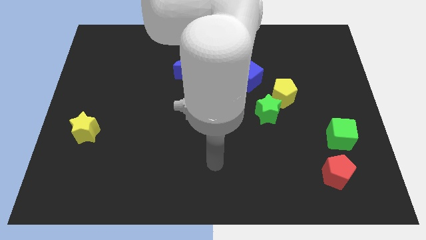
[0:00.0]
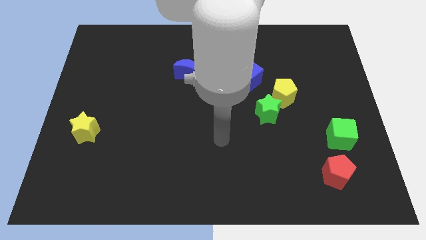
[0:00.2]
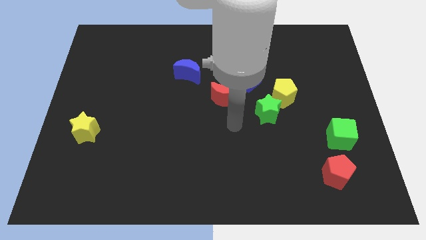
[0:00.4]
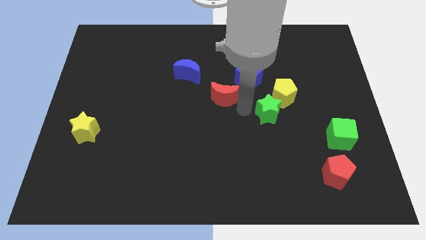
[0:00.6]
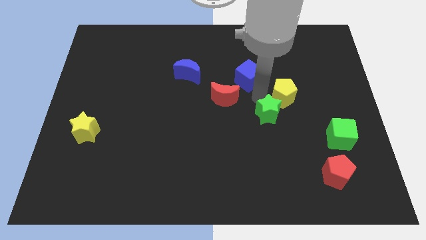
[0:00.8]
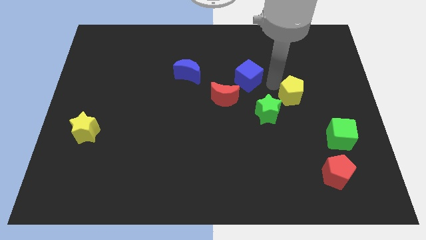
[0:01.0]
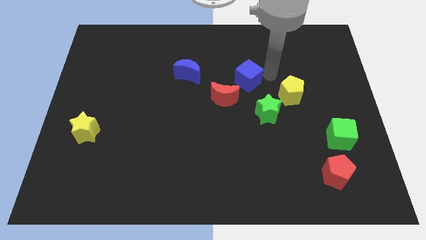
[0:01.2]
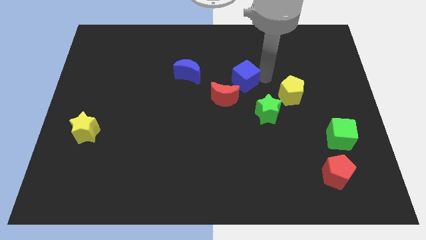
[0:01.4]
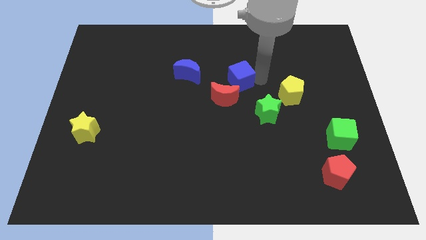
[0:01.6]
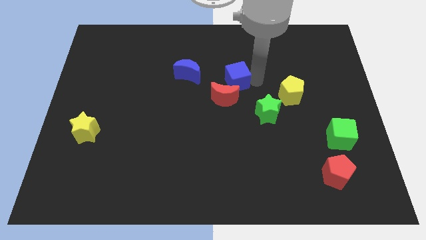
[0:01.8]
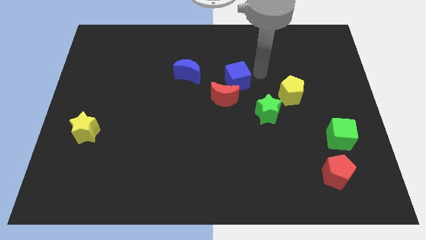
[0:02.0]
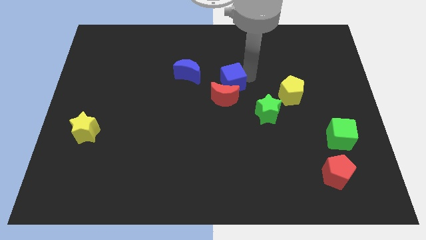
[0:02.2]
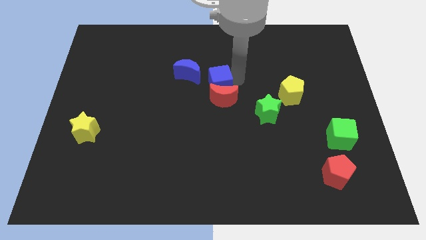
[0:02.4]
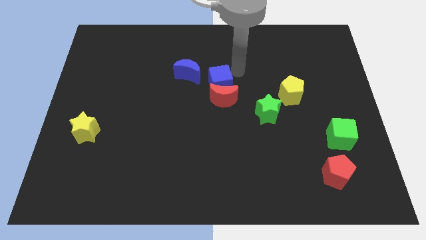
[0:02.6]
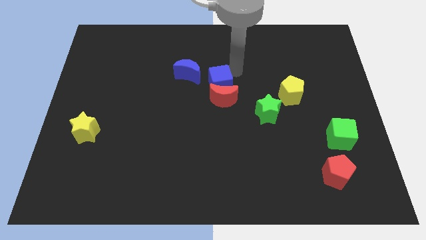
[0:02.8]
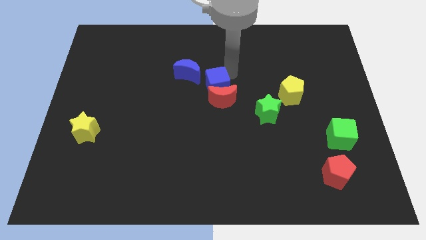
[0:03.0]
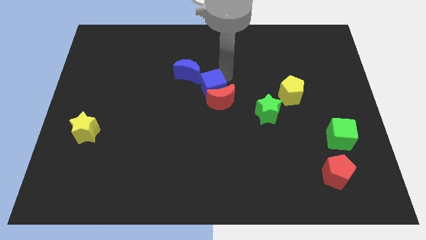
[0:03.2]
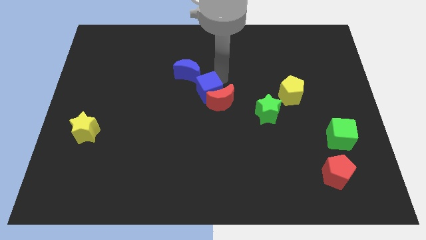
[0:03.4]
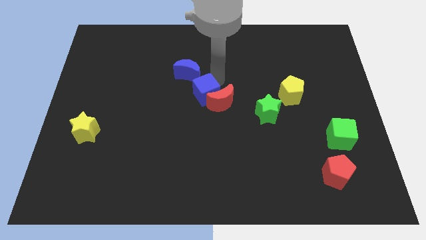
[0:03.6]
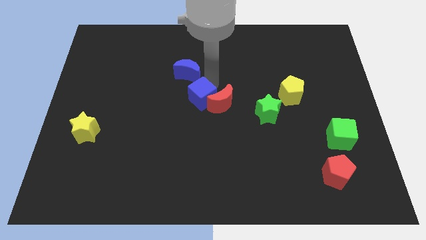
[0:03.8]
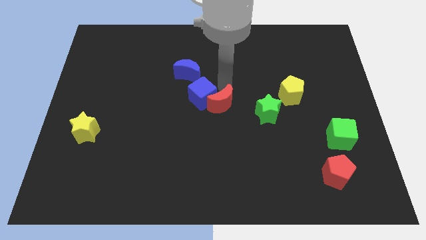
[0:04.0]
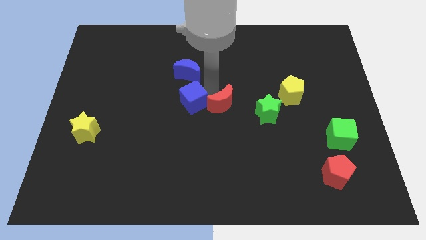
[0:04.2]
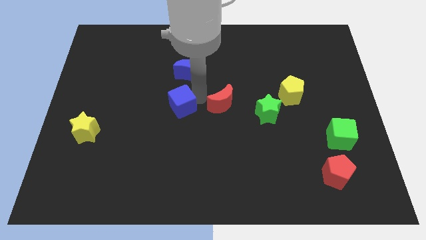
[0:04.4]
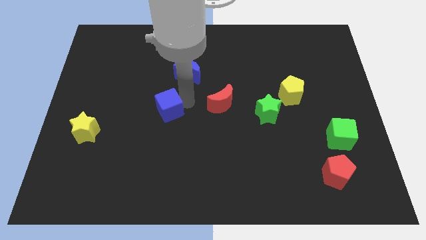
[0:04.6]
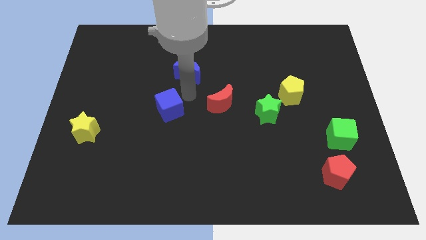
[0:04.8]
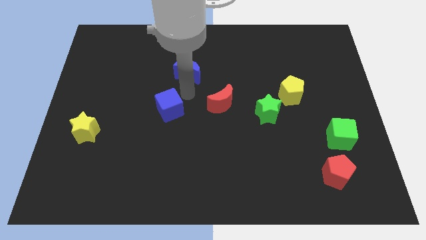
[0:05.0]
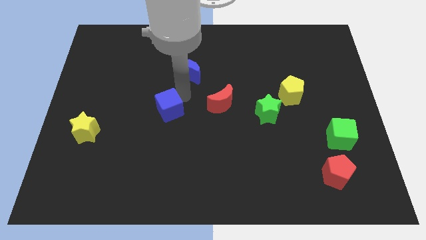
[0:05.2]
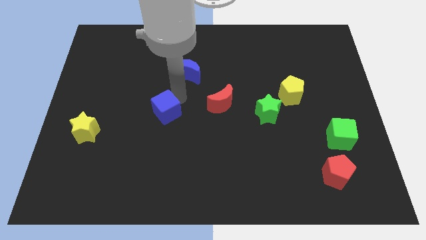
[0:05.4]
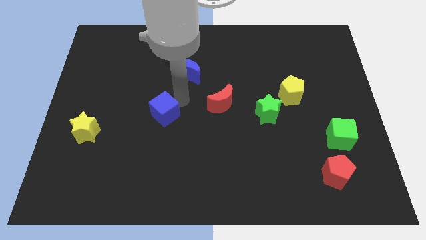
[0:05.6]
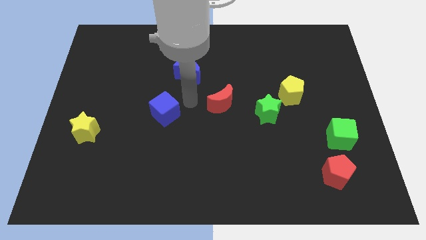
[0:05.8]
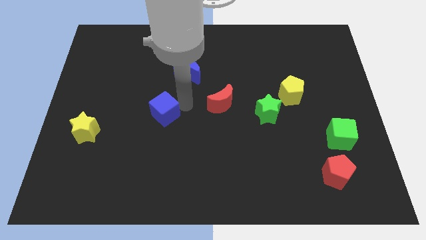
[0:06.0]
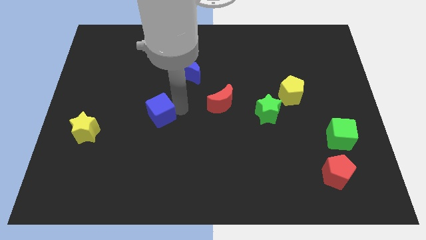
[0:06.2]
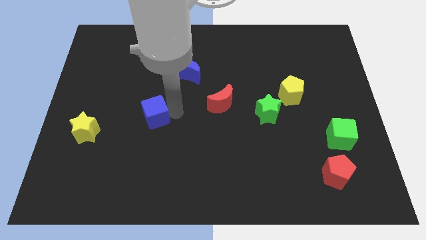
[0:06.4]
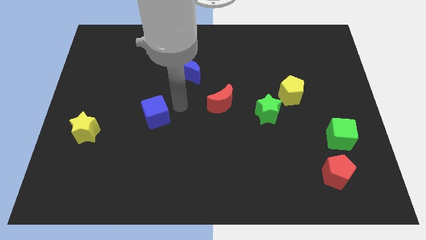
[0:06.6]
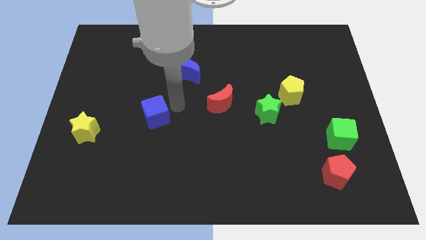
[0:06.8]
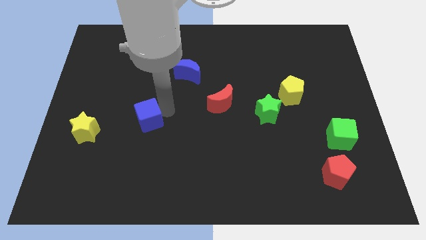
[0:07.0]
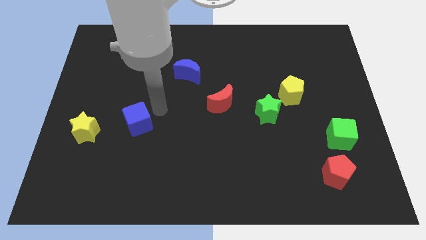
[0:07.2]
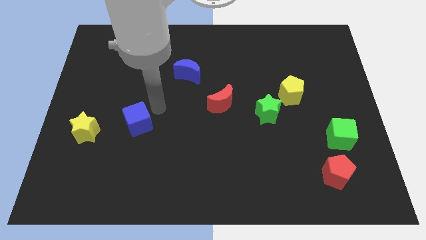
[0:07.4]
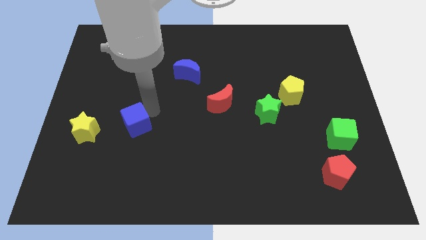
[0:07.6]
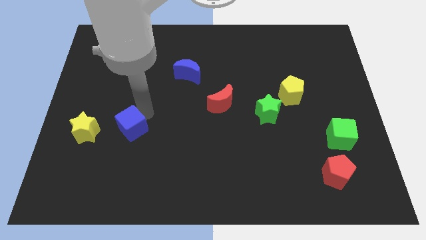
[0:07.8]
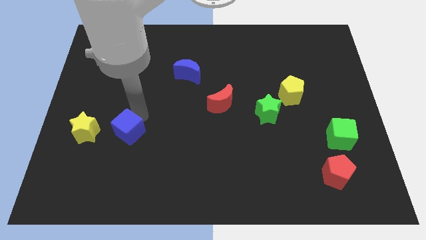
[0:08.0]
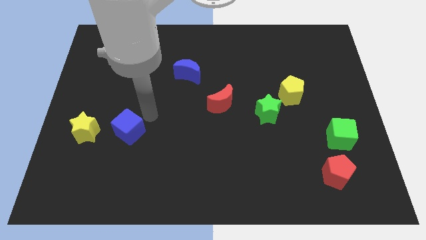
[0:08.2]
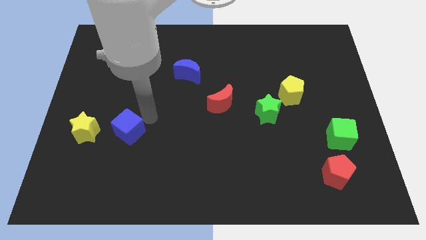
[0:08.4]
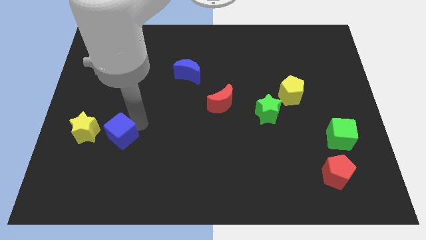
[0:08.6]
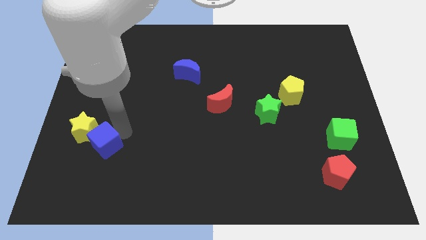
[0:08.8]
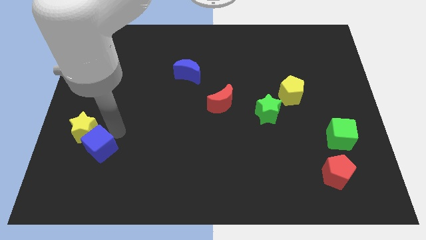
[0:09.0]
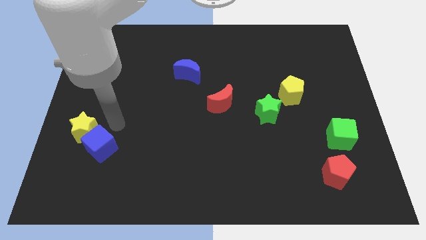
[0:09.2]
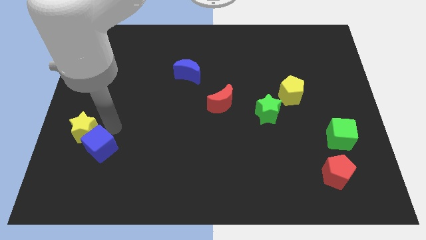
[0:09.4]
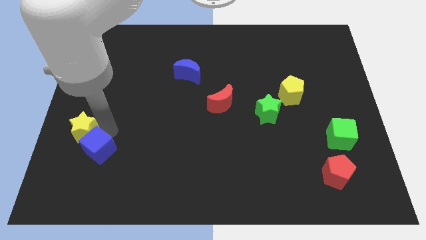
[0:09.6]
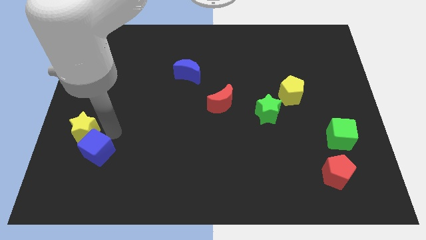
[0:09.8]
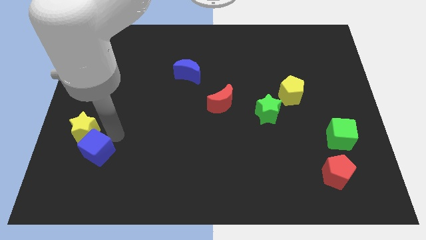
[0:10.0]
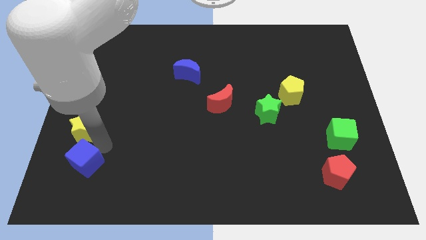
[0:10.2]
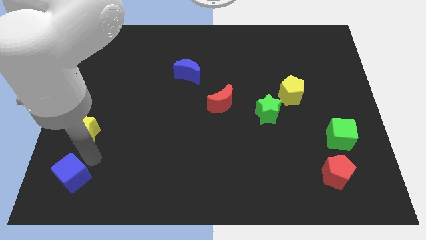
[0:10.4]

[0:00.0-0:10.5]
push the blue cube to the bottom left of the board

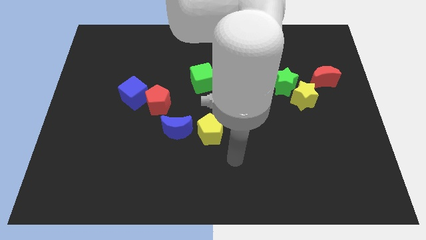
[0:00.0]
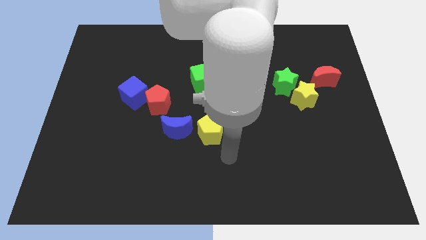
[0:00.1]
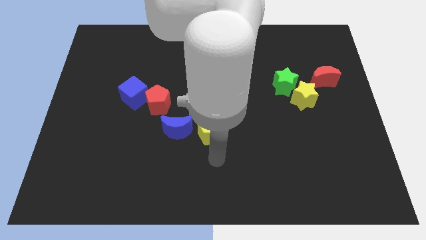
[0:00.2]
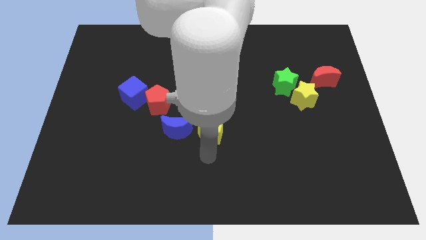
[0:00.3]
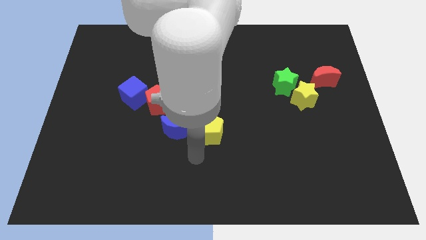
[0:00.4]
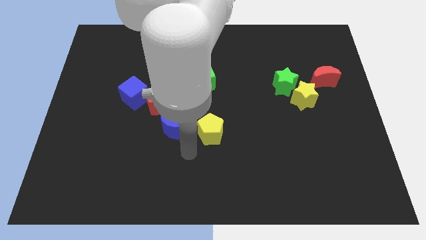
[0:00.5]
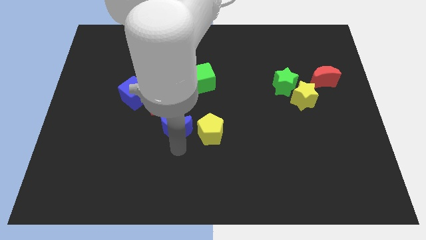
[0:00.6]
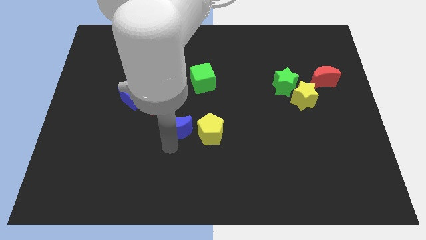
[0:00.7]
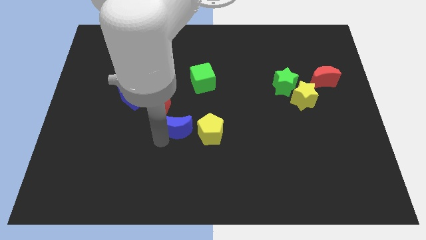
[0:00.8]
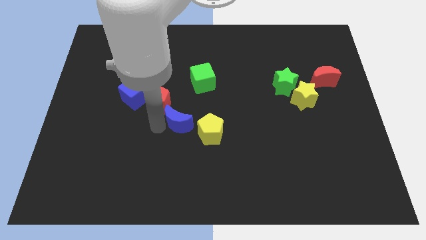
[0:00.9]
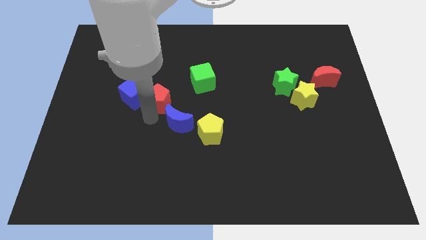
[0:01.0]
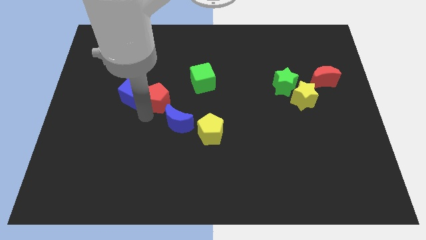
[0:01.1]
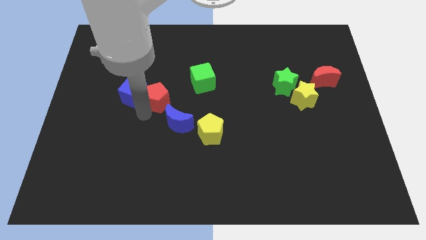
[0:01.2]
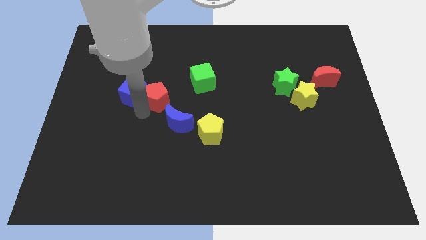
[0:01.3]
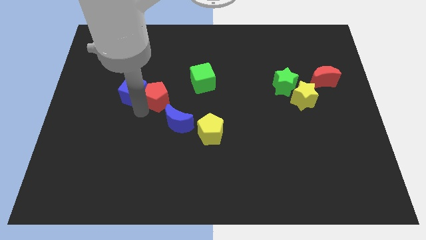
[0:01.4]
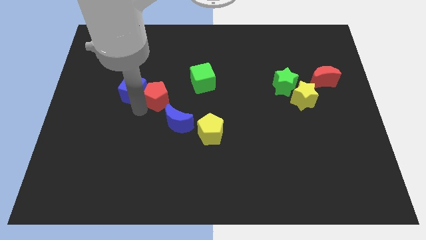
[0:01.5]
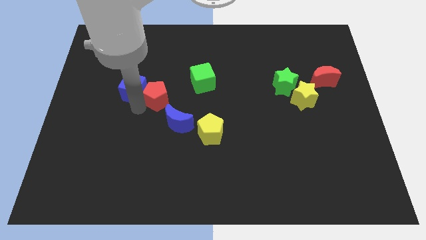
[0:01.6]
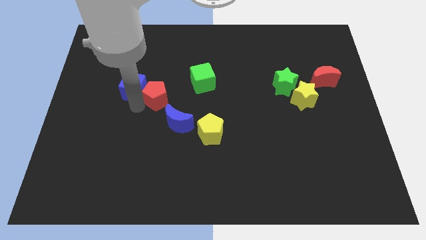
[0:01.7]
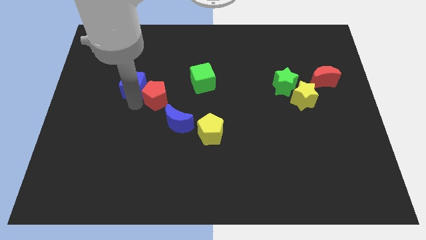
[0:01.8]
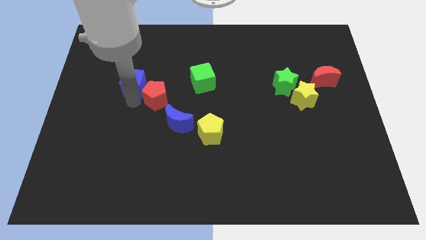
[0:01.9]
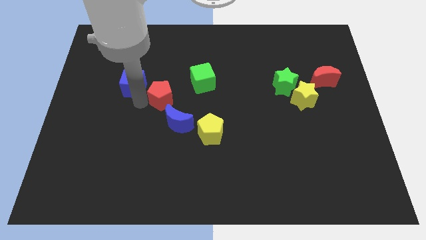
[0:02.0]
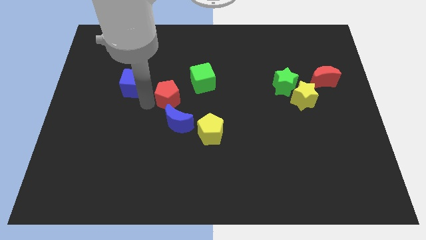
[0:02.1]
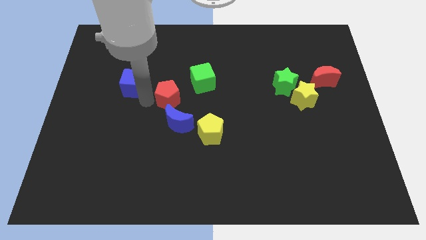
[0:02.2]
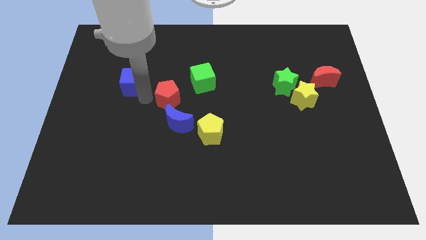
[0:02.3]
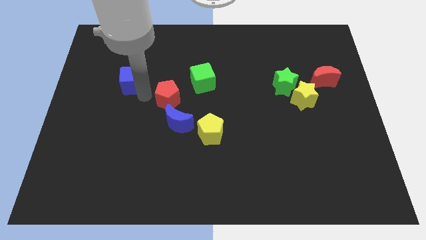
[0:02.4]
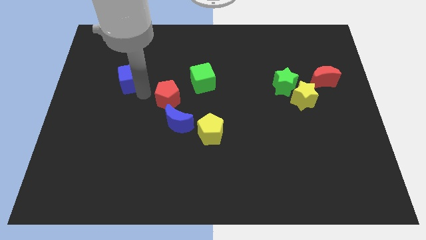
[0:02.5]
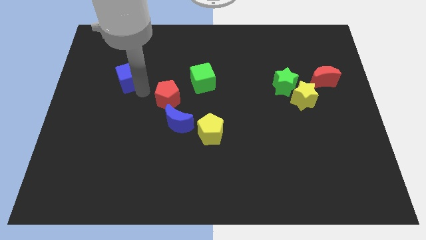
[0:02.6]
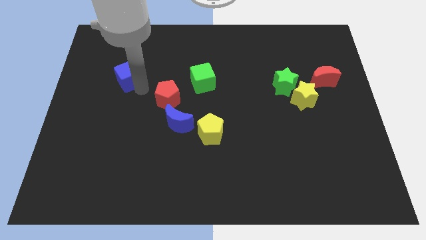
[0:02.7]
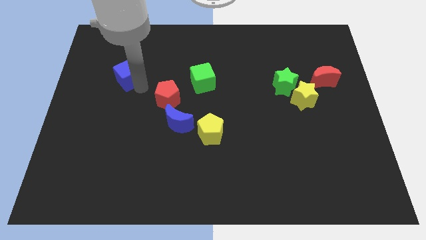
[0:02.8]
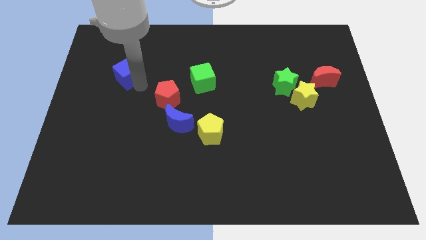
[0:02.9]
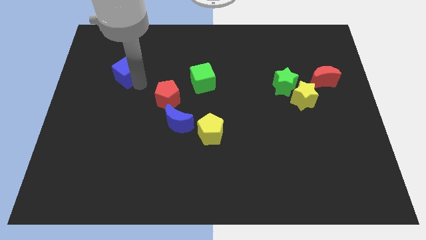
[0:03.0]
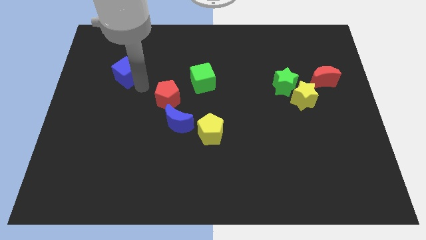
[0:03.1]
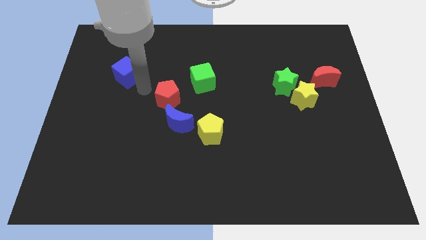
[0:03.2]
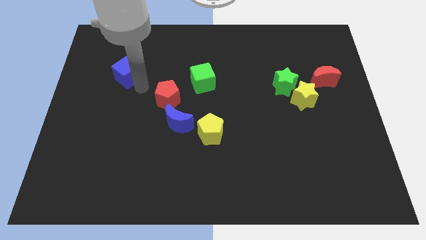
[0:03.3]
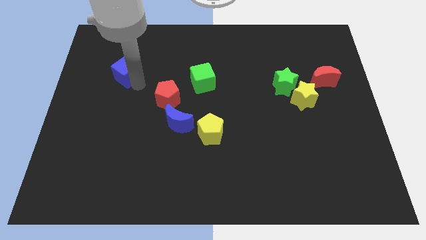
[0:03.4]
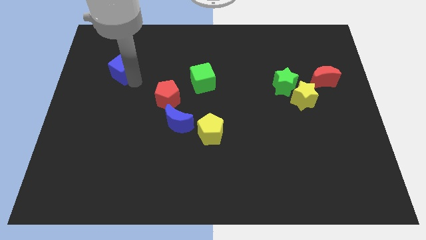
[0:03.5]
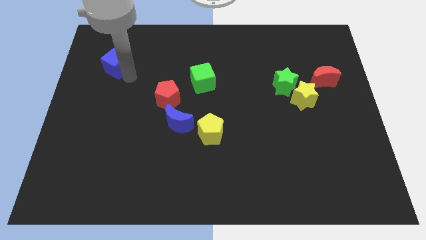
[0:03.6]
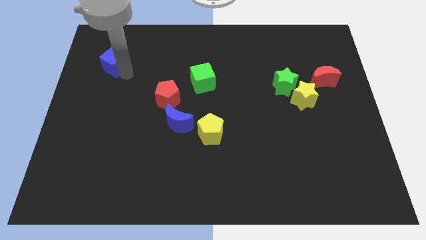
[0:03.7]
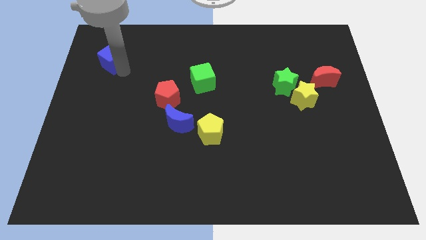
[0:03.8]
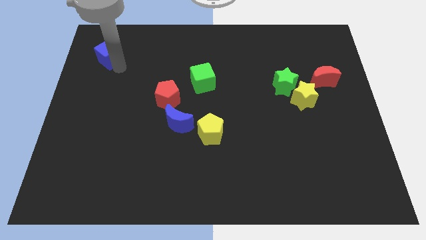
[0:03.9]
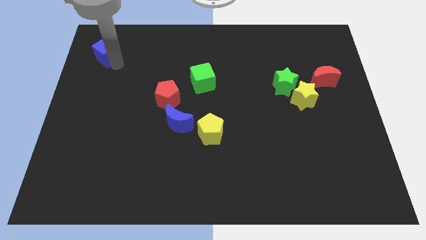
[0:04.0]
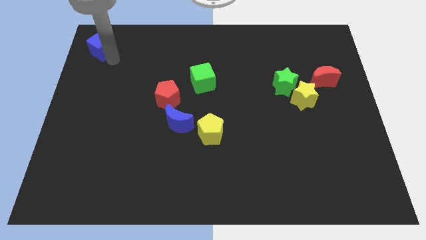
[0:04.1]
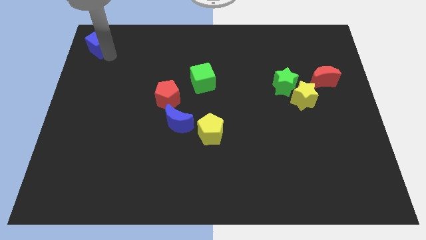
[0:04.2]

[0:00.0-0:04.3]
slide the blue cube to the top left of the board
